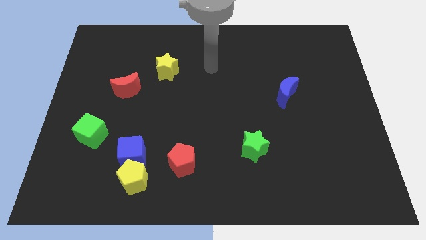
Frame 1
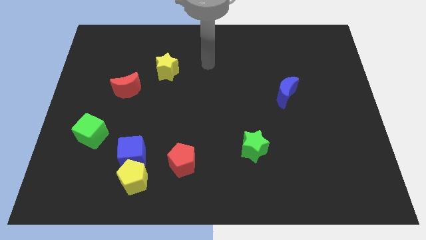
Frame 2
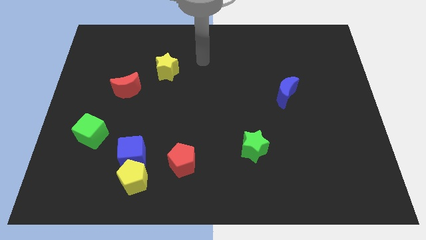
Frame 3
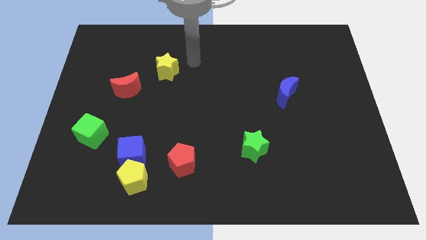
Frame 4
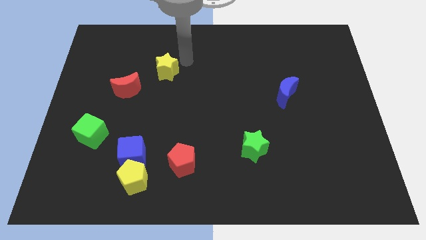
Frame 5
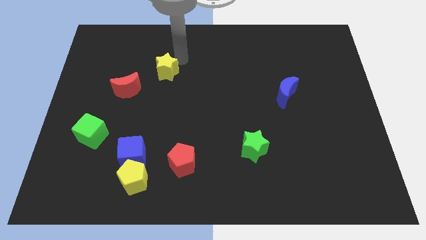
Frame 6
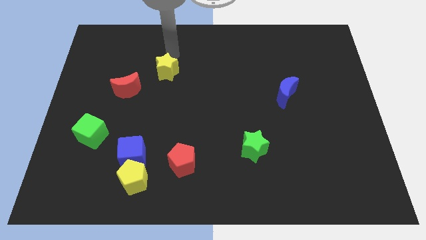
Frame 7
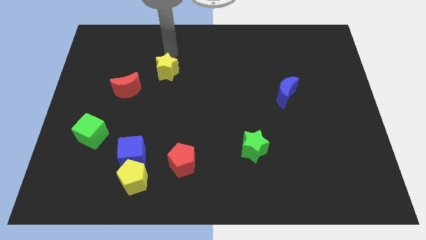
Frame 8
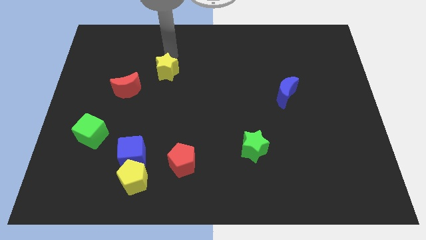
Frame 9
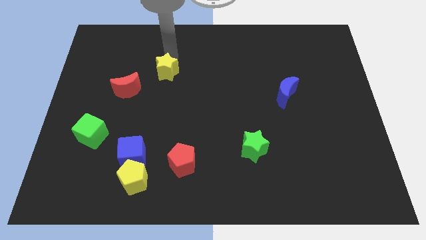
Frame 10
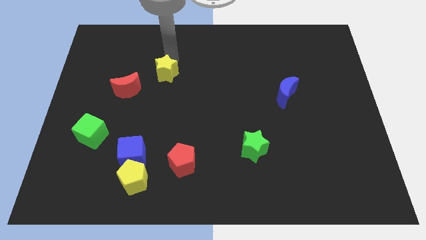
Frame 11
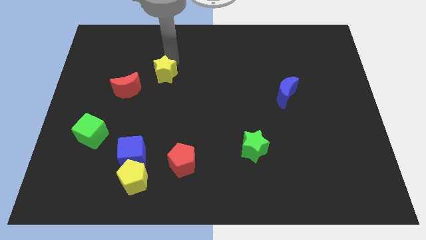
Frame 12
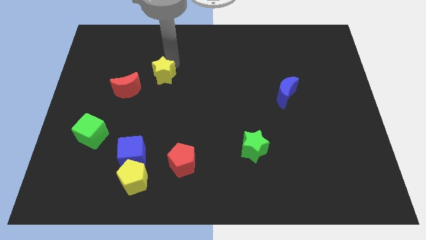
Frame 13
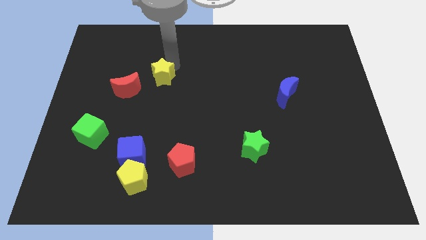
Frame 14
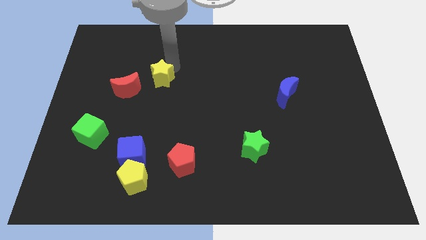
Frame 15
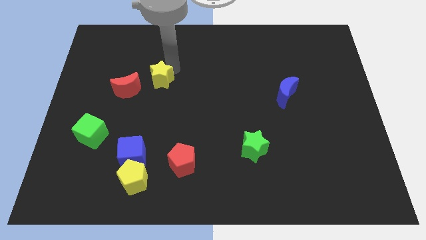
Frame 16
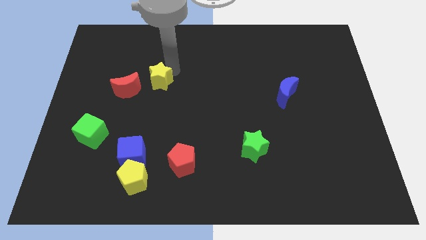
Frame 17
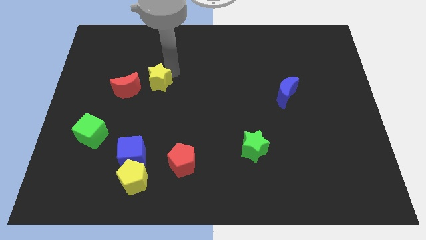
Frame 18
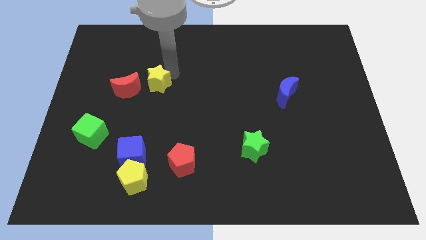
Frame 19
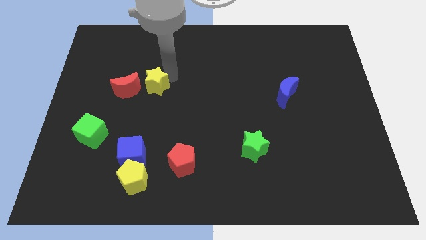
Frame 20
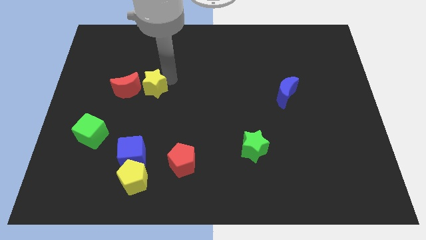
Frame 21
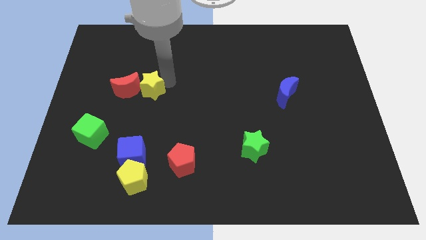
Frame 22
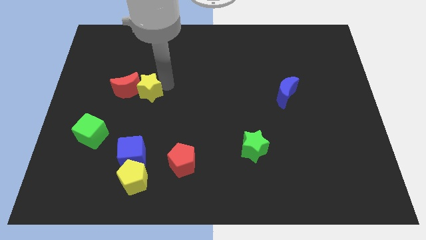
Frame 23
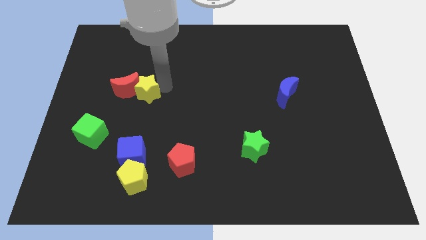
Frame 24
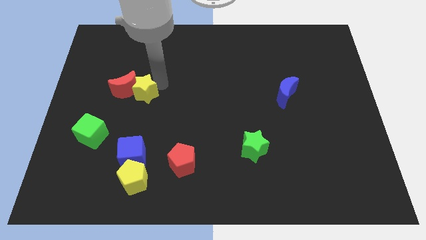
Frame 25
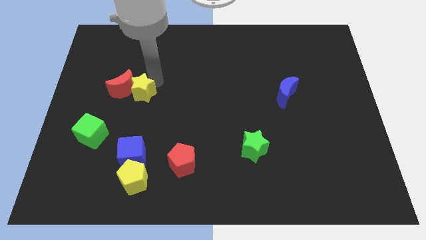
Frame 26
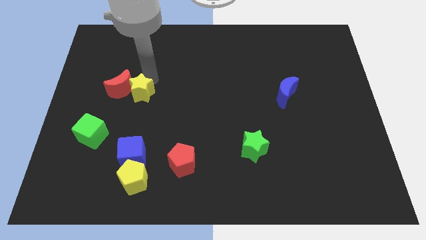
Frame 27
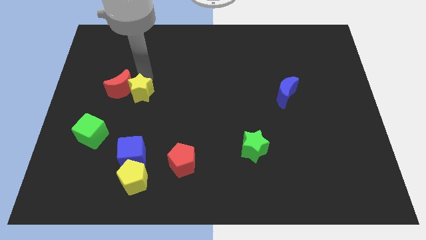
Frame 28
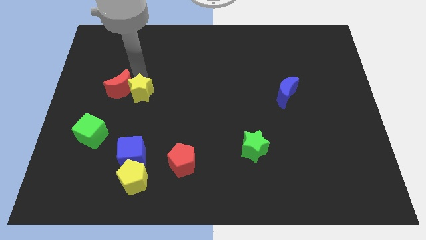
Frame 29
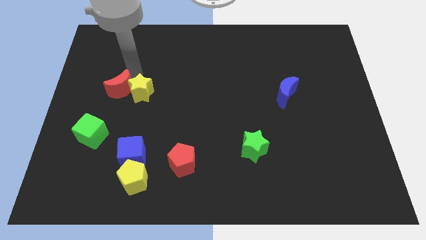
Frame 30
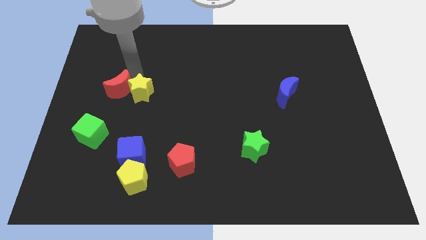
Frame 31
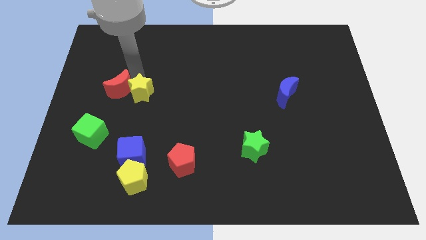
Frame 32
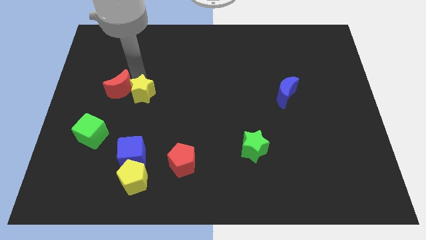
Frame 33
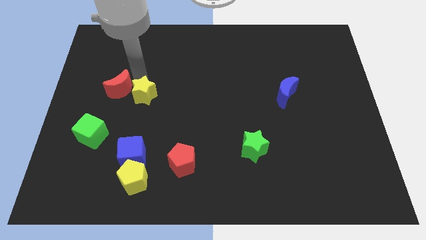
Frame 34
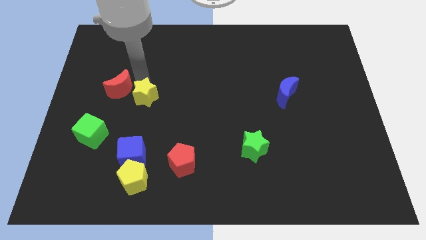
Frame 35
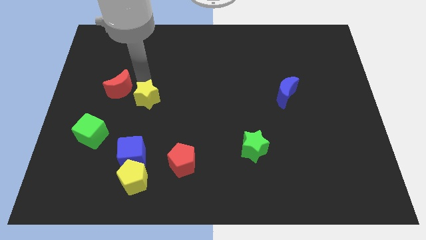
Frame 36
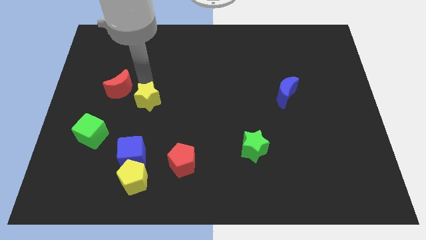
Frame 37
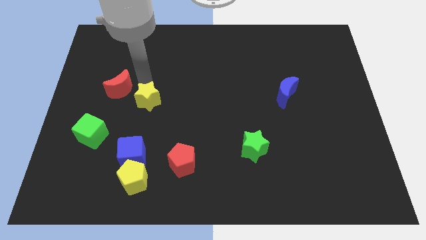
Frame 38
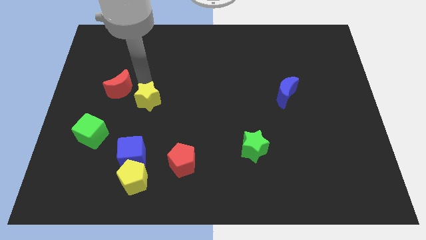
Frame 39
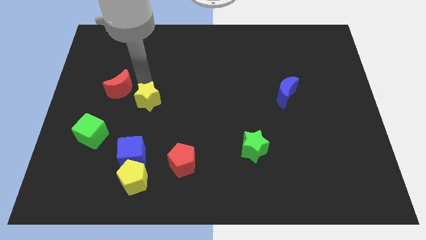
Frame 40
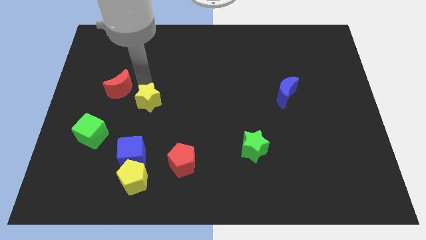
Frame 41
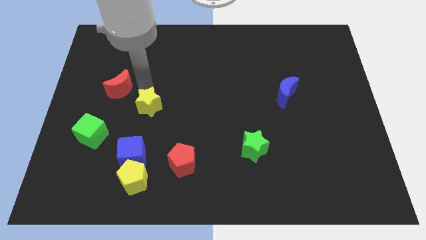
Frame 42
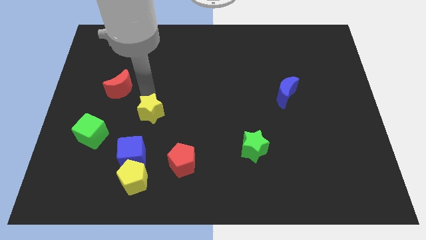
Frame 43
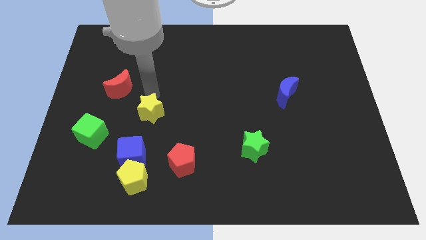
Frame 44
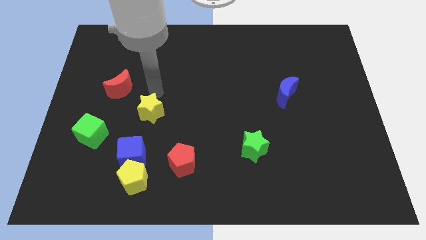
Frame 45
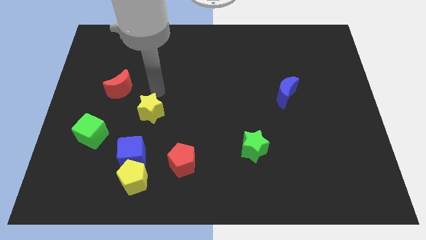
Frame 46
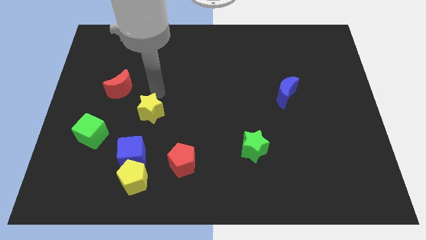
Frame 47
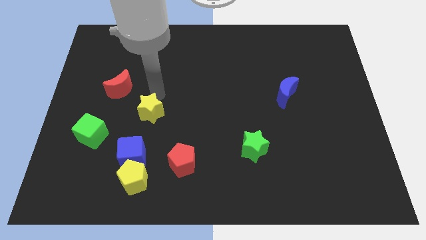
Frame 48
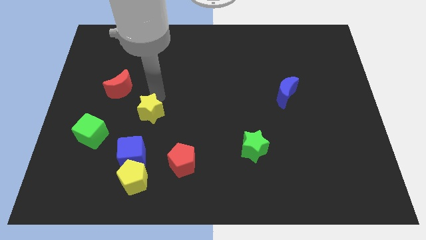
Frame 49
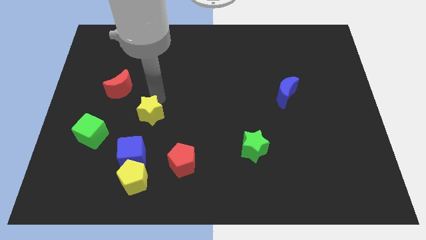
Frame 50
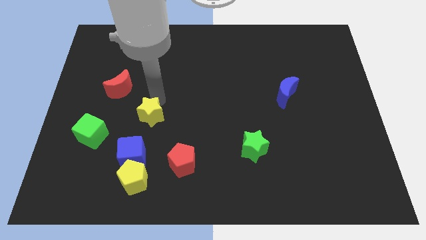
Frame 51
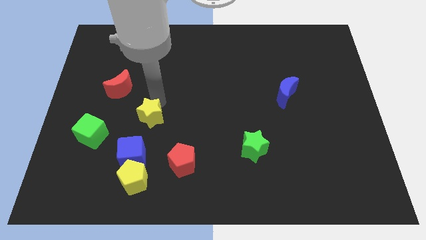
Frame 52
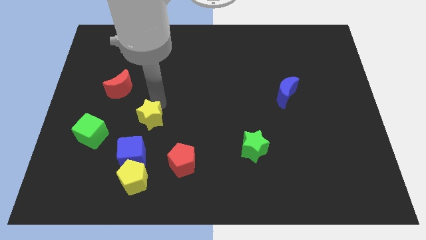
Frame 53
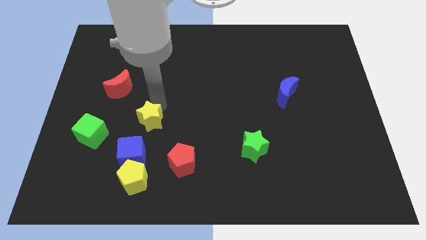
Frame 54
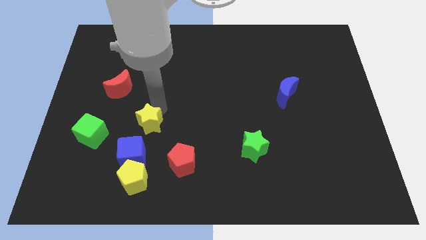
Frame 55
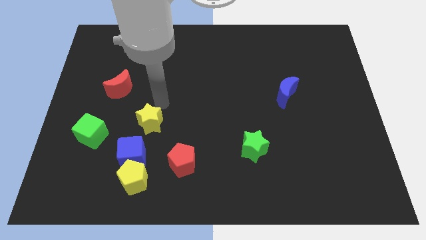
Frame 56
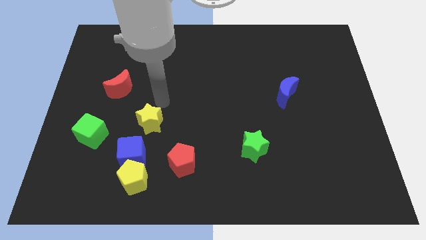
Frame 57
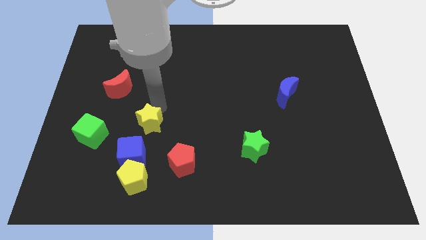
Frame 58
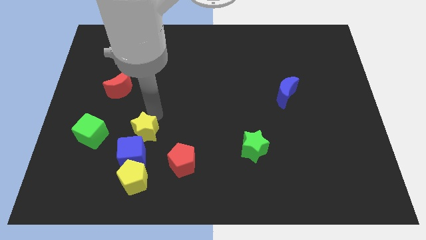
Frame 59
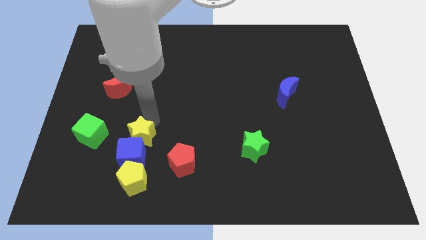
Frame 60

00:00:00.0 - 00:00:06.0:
put the yellow star next to the blue cube

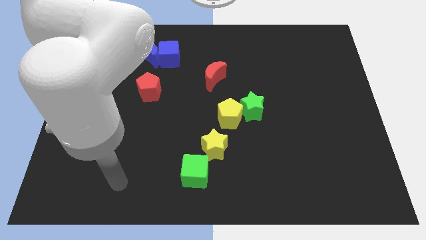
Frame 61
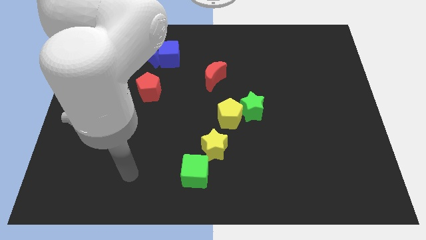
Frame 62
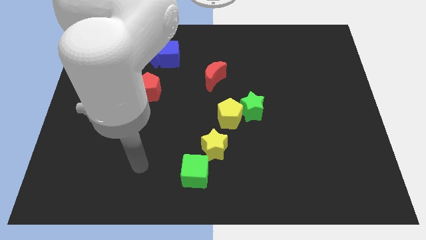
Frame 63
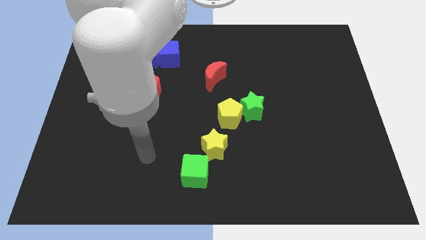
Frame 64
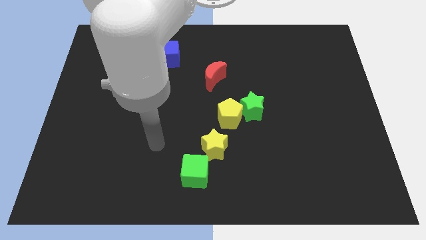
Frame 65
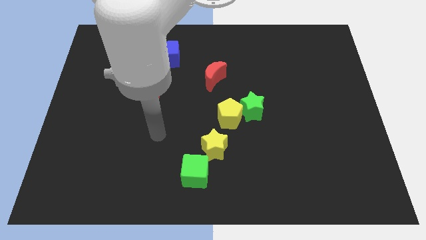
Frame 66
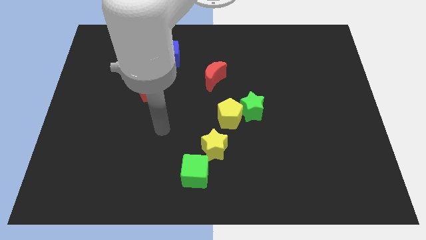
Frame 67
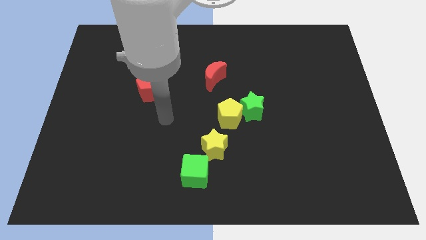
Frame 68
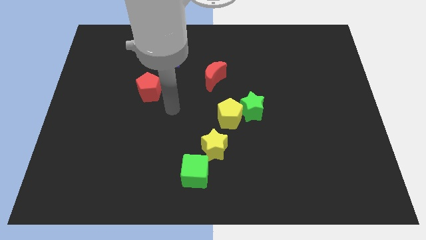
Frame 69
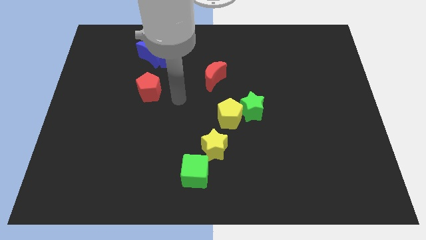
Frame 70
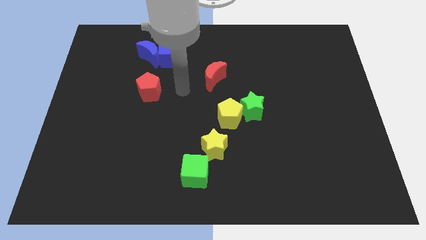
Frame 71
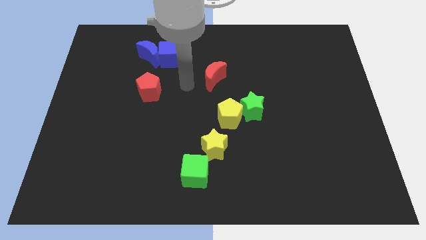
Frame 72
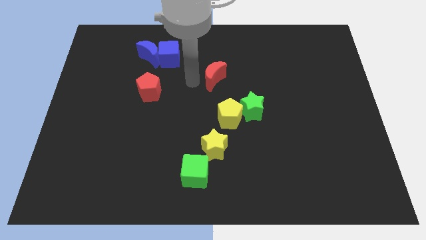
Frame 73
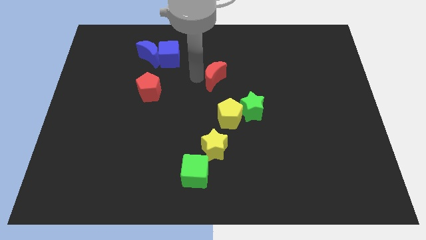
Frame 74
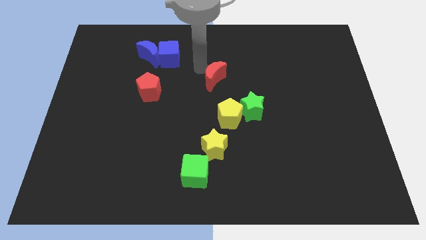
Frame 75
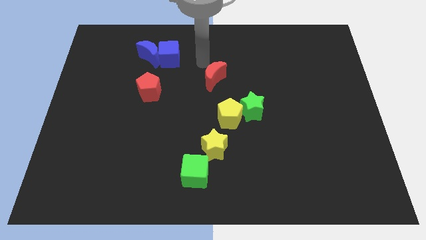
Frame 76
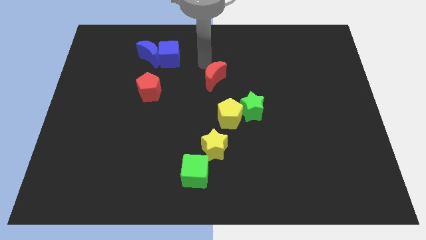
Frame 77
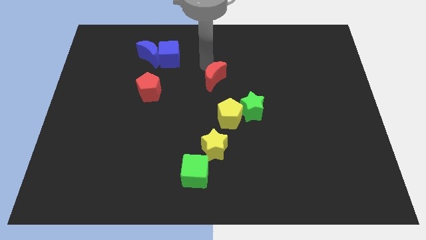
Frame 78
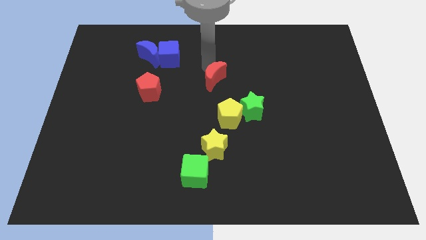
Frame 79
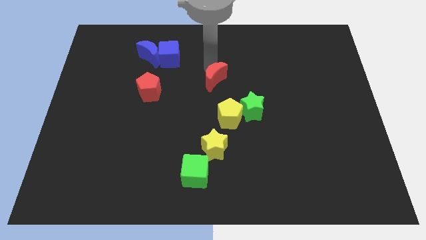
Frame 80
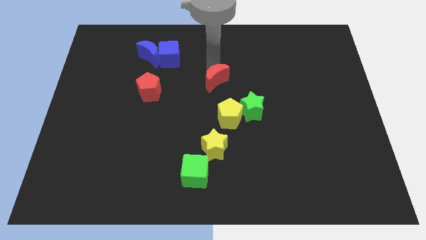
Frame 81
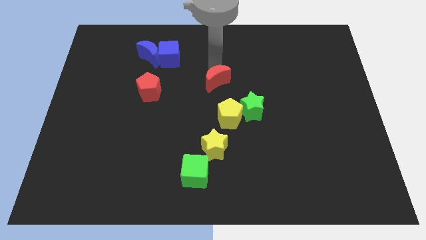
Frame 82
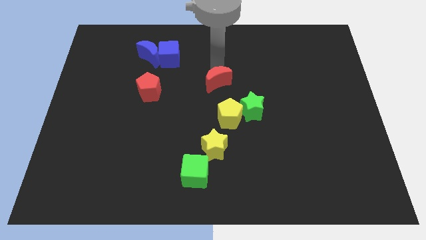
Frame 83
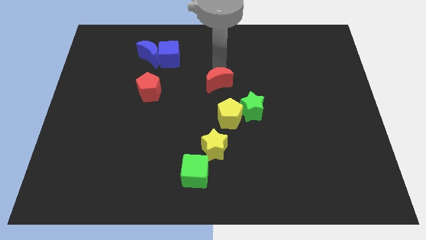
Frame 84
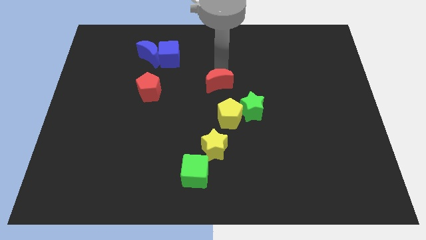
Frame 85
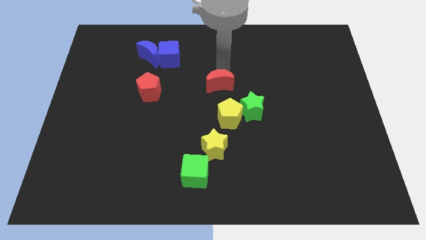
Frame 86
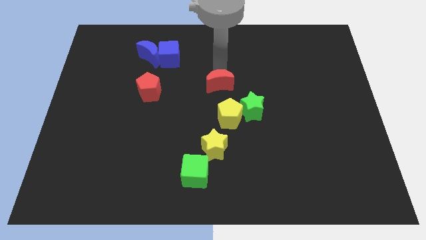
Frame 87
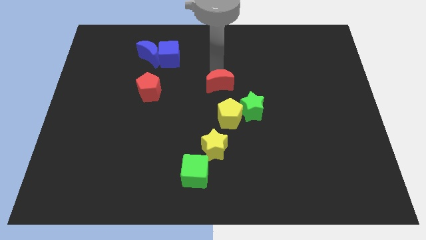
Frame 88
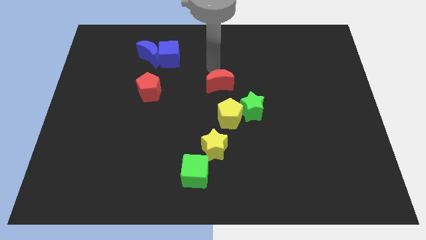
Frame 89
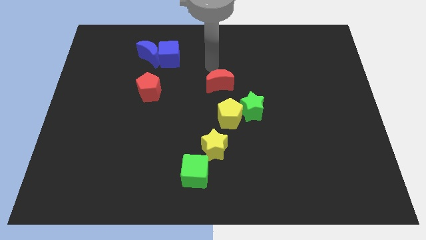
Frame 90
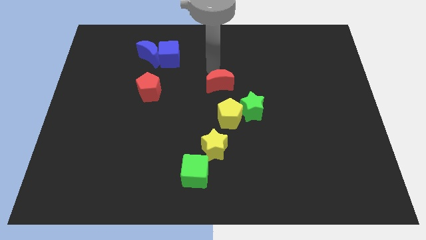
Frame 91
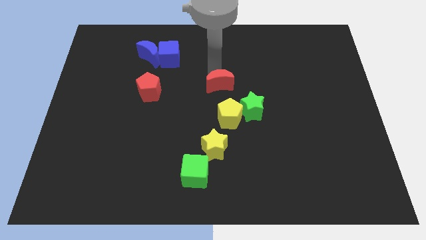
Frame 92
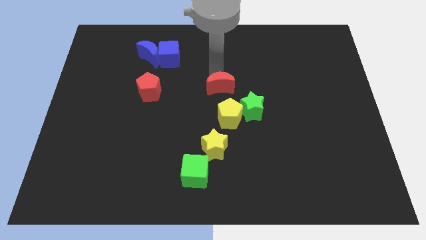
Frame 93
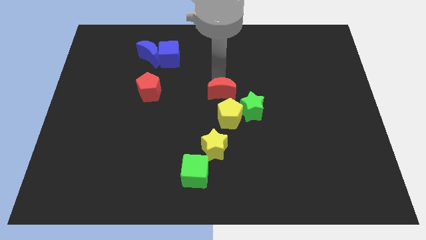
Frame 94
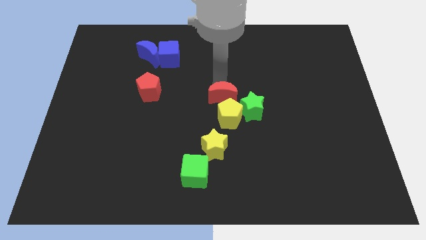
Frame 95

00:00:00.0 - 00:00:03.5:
slide the red moon next to the yellow pentagon
